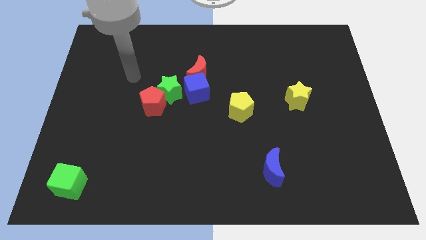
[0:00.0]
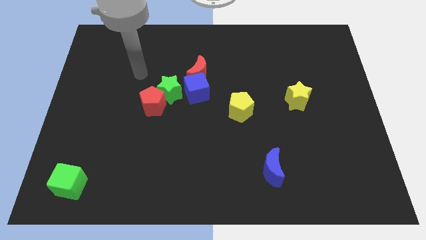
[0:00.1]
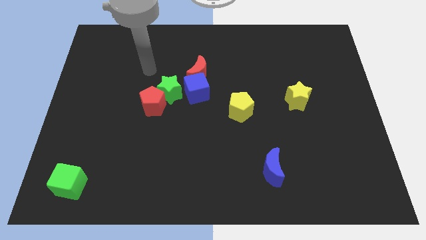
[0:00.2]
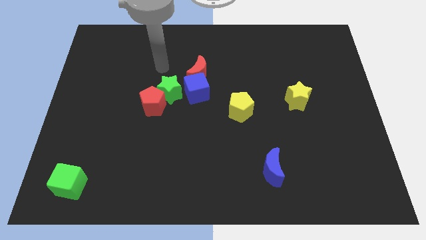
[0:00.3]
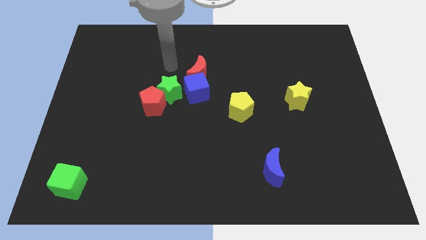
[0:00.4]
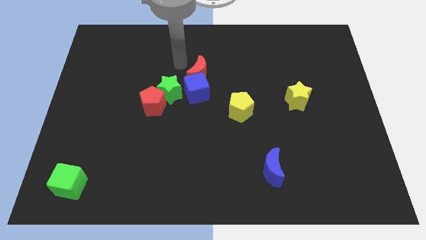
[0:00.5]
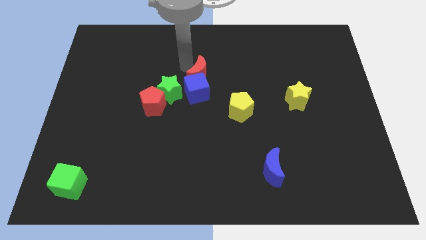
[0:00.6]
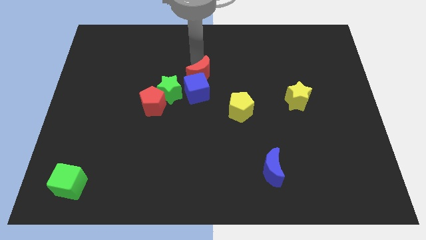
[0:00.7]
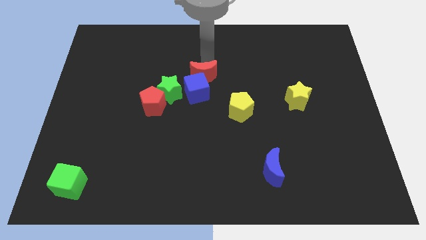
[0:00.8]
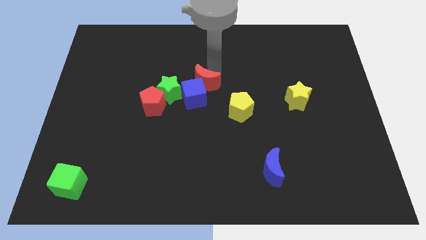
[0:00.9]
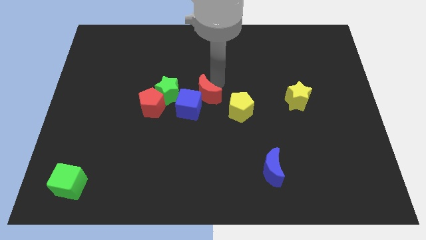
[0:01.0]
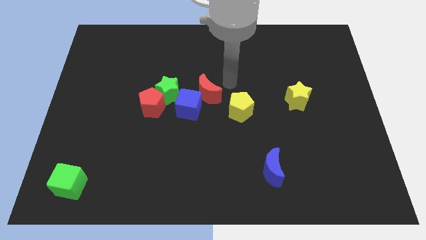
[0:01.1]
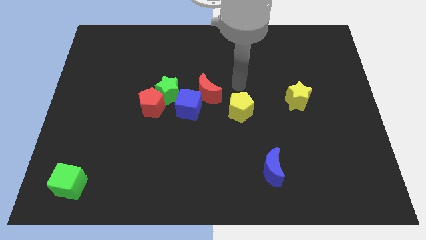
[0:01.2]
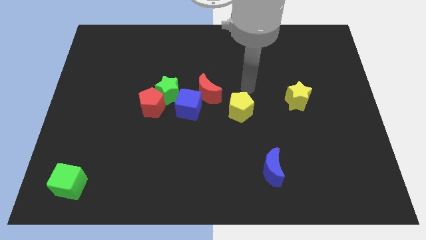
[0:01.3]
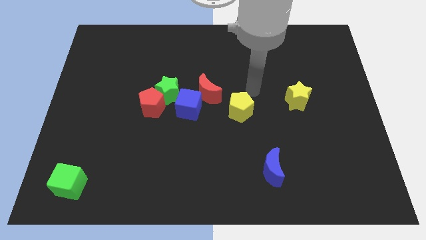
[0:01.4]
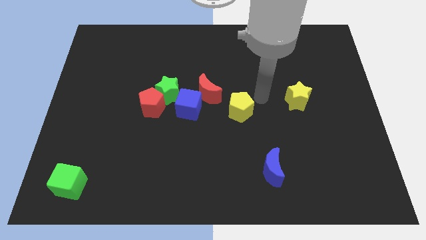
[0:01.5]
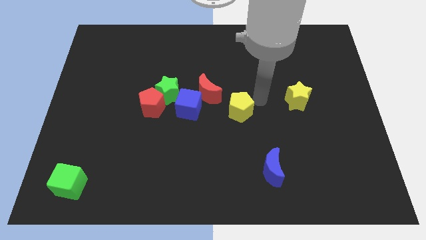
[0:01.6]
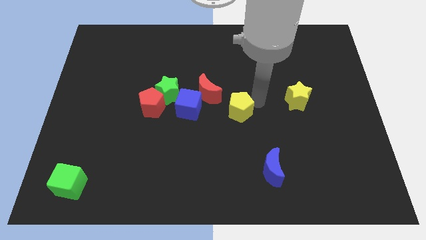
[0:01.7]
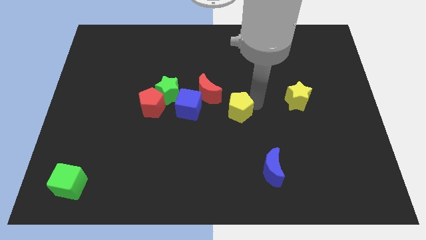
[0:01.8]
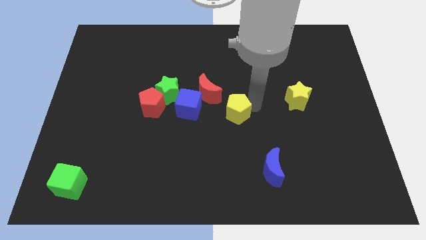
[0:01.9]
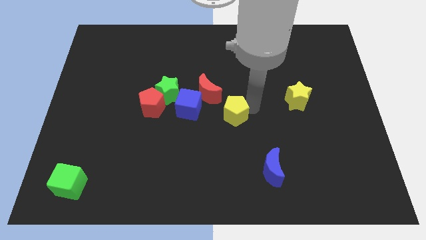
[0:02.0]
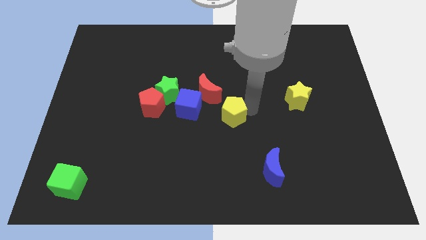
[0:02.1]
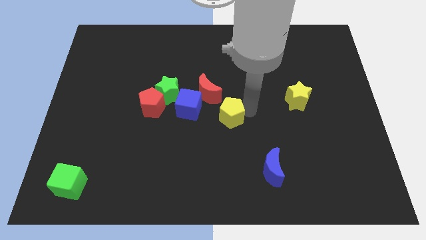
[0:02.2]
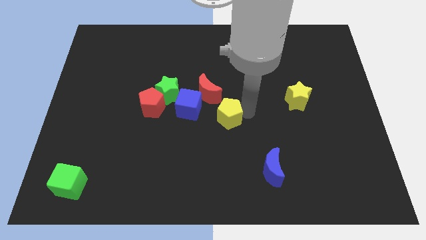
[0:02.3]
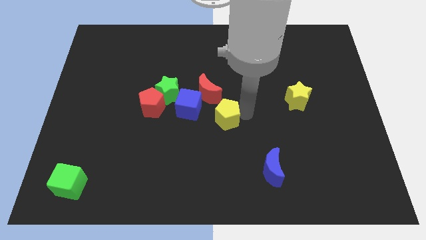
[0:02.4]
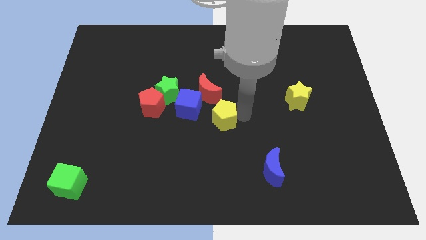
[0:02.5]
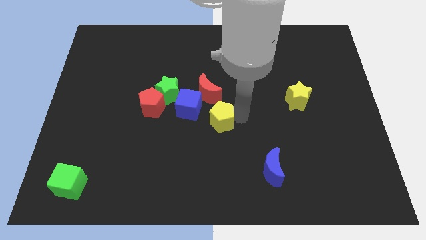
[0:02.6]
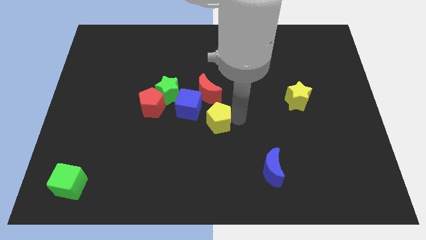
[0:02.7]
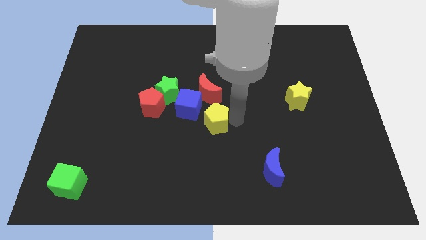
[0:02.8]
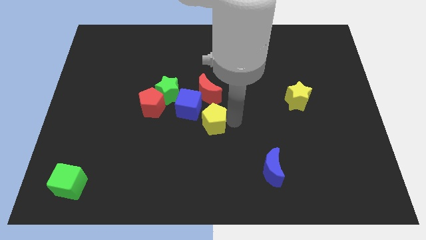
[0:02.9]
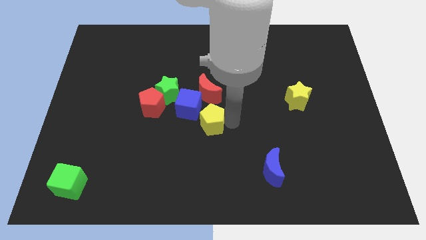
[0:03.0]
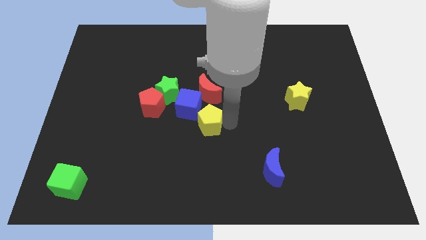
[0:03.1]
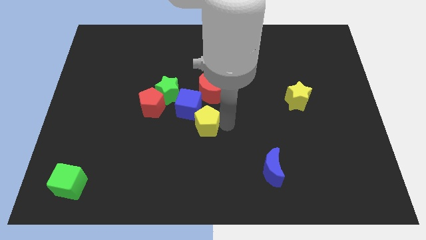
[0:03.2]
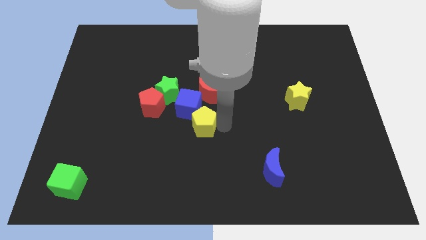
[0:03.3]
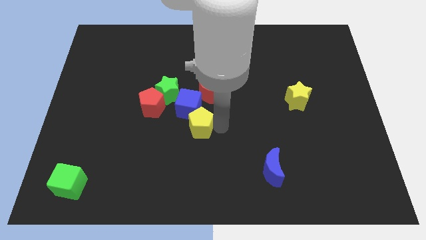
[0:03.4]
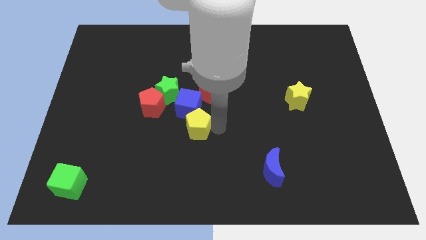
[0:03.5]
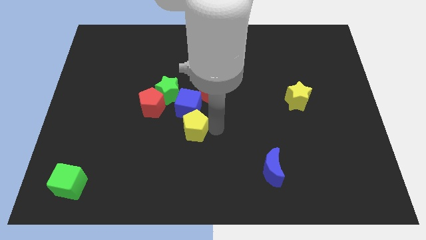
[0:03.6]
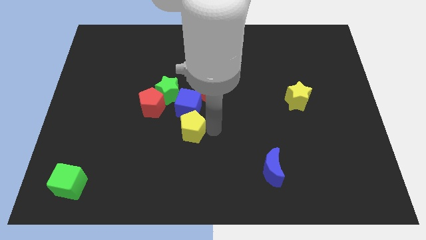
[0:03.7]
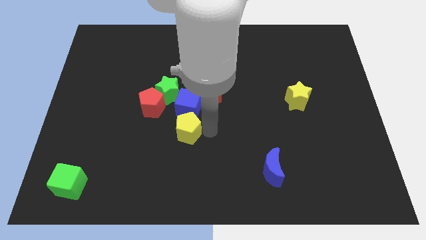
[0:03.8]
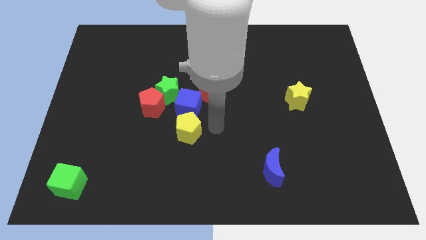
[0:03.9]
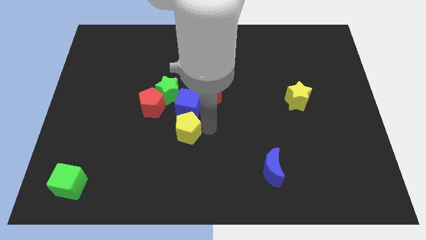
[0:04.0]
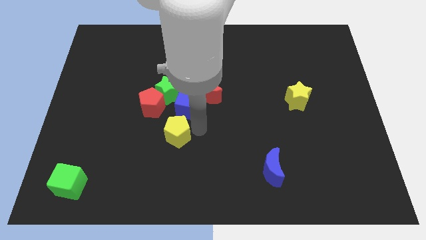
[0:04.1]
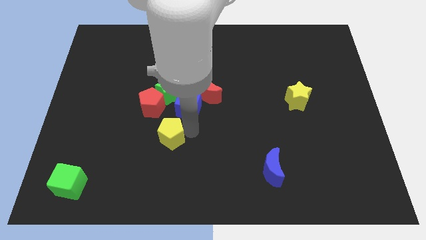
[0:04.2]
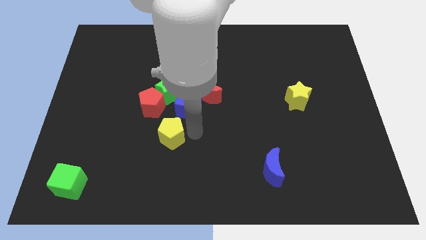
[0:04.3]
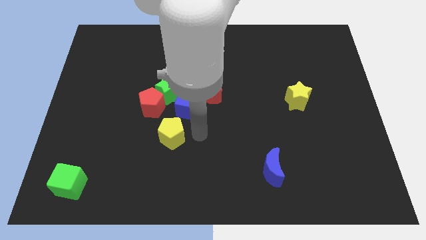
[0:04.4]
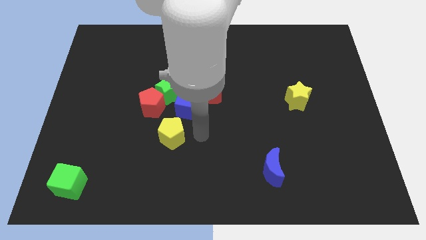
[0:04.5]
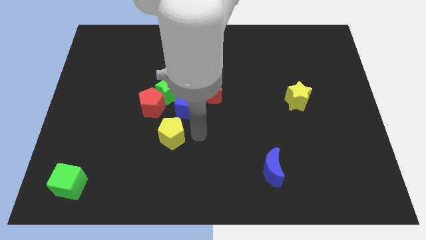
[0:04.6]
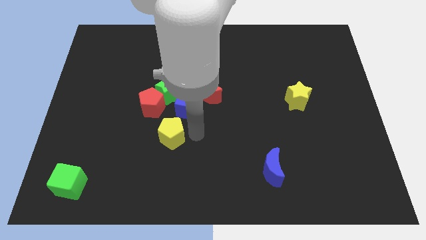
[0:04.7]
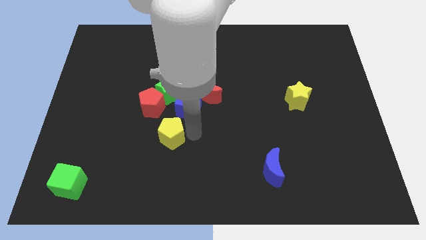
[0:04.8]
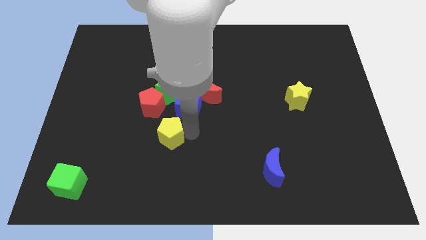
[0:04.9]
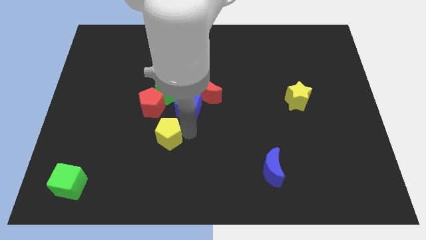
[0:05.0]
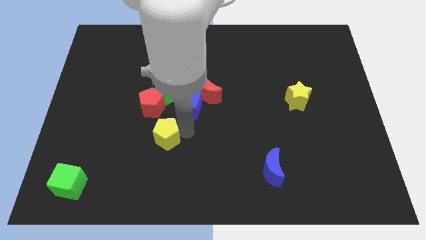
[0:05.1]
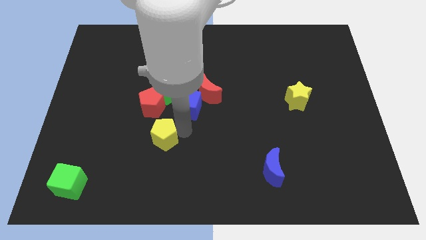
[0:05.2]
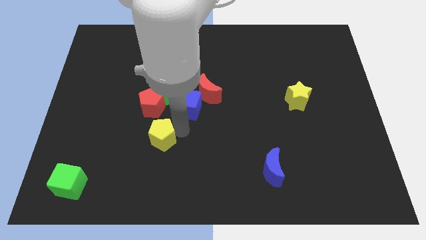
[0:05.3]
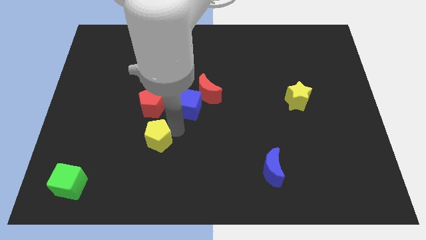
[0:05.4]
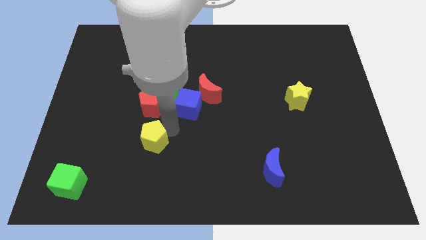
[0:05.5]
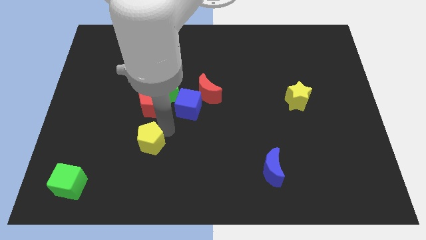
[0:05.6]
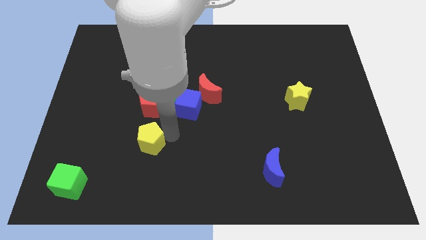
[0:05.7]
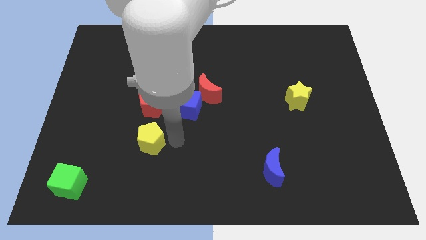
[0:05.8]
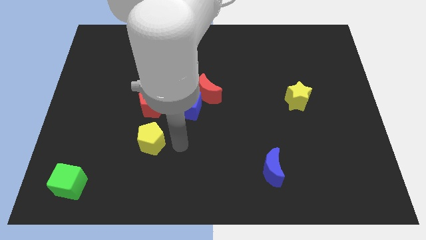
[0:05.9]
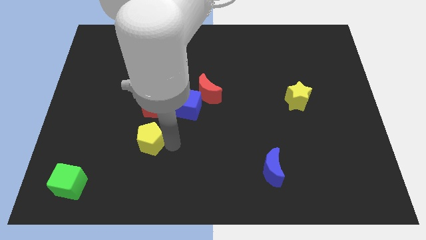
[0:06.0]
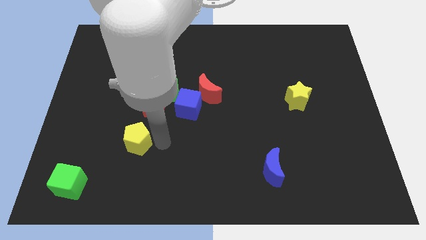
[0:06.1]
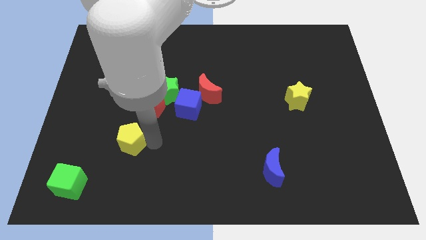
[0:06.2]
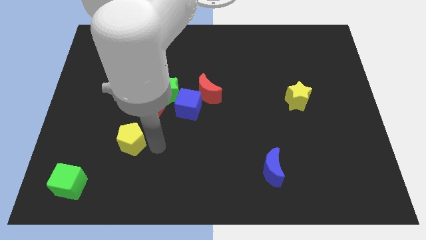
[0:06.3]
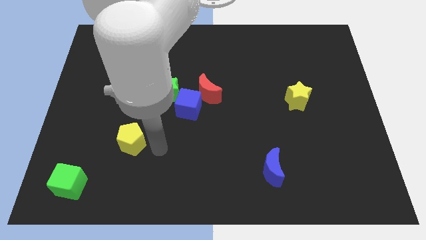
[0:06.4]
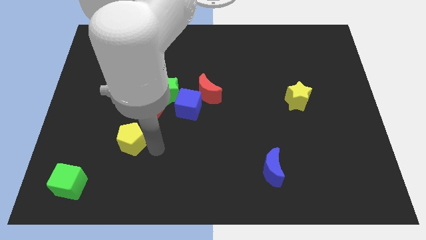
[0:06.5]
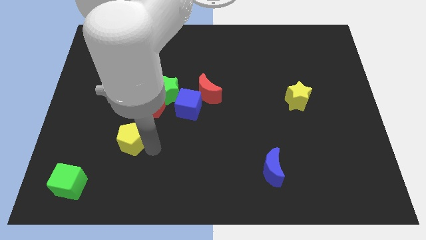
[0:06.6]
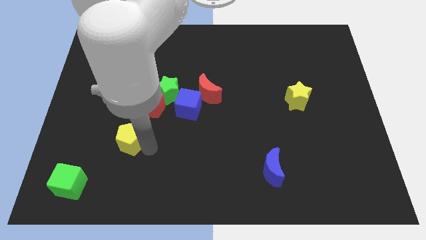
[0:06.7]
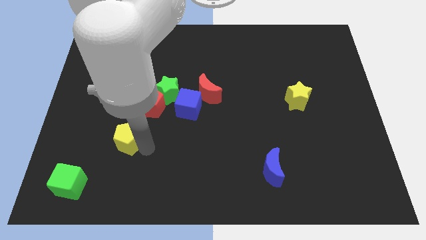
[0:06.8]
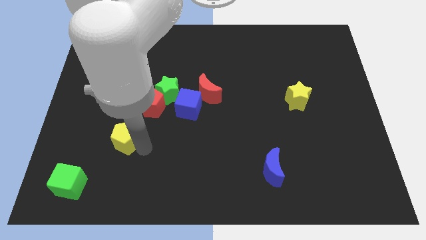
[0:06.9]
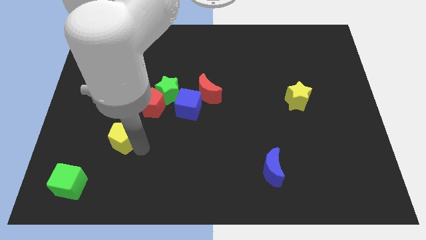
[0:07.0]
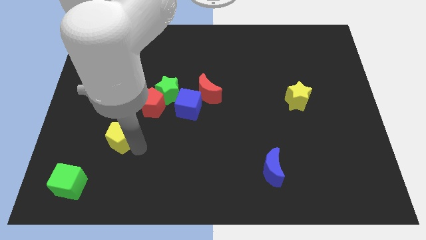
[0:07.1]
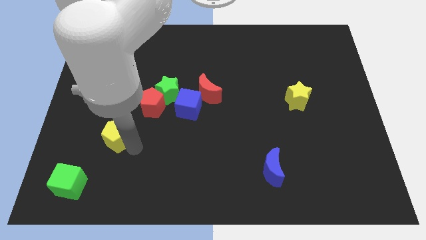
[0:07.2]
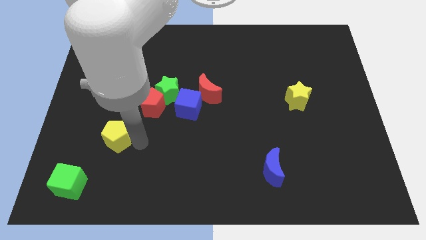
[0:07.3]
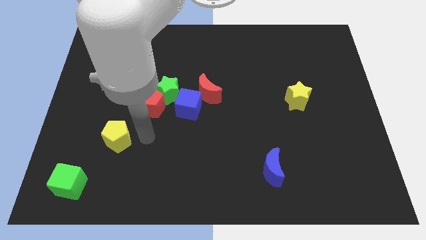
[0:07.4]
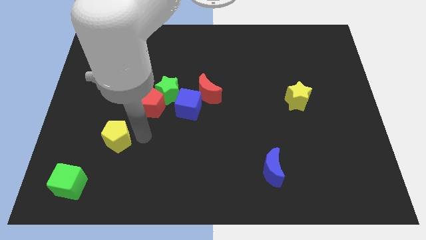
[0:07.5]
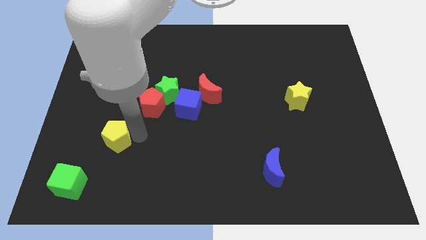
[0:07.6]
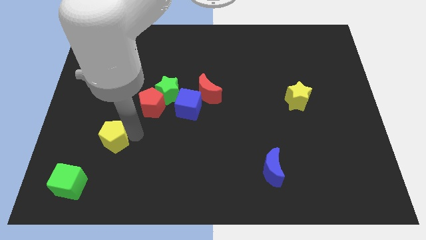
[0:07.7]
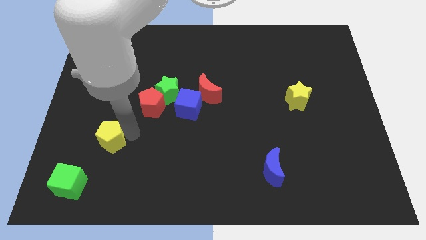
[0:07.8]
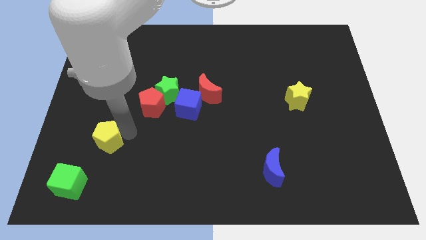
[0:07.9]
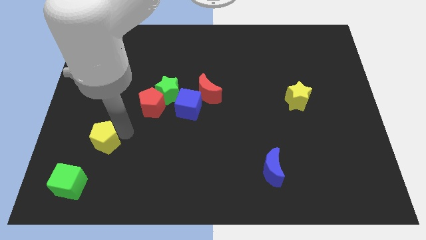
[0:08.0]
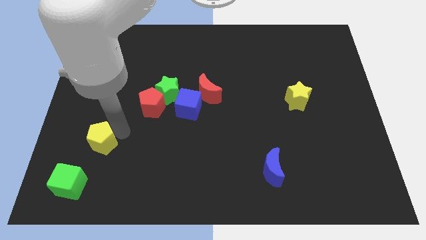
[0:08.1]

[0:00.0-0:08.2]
push the yellow pentagon above the green cube
